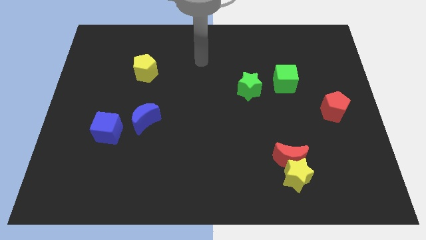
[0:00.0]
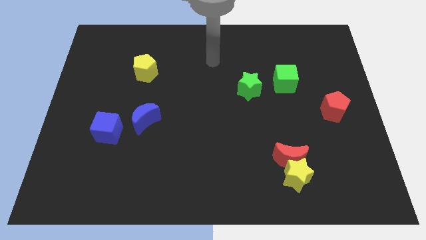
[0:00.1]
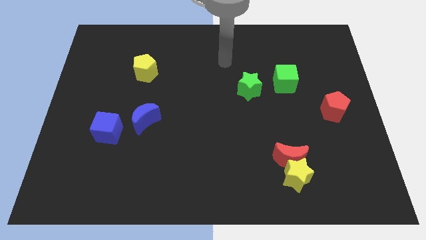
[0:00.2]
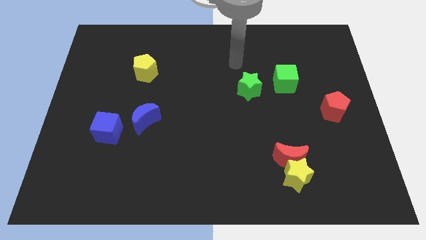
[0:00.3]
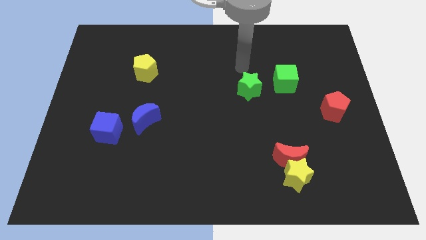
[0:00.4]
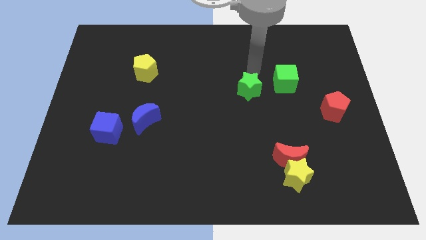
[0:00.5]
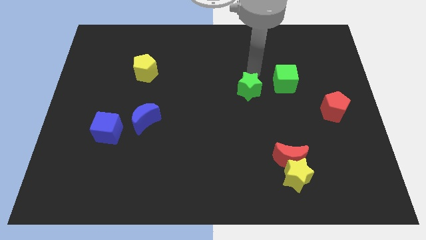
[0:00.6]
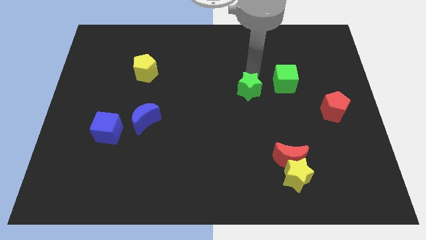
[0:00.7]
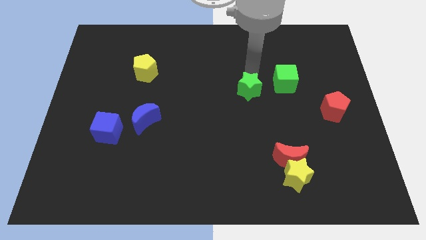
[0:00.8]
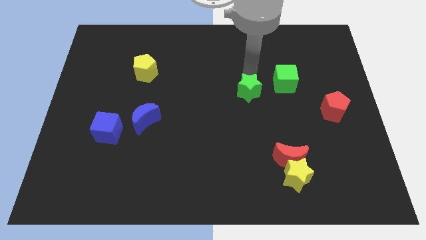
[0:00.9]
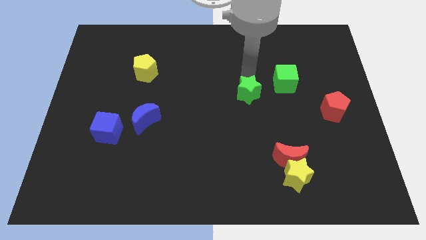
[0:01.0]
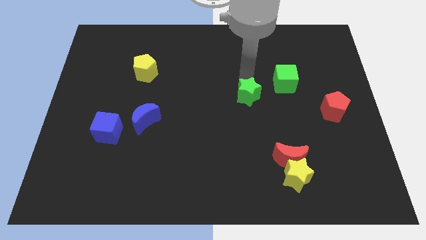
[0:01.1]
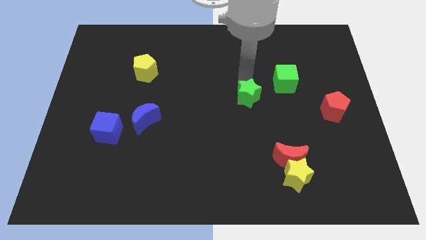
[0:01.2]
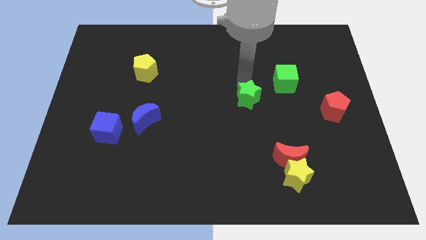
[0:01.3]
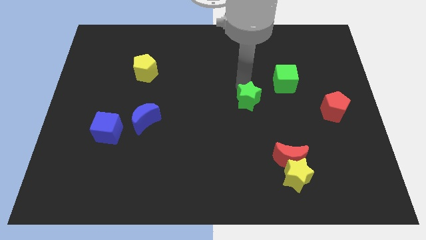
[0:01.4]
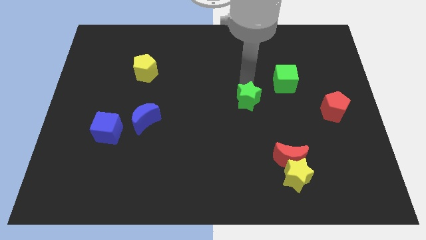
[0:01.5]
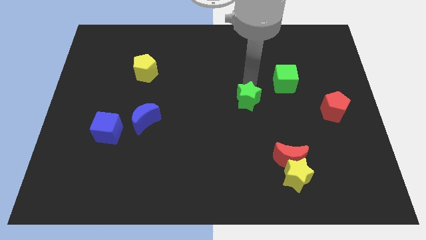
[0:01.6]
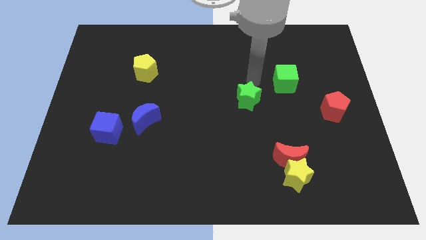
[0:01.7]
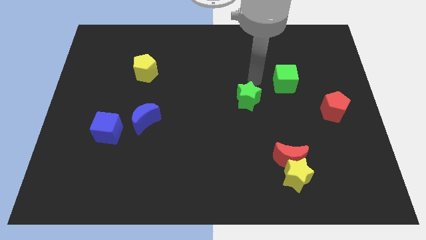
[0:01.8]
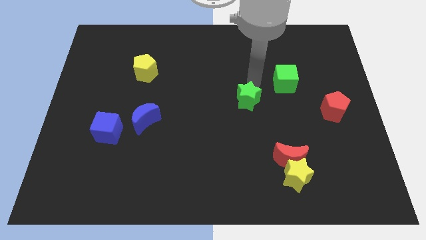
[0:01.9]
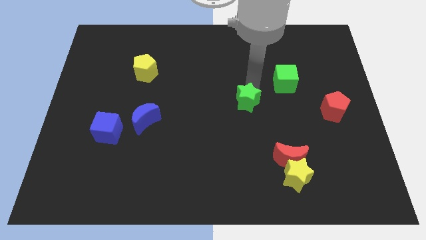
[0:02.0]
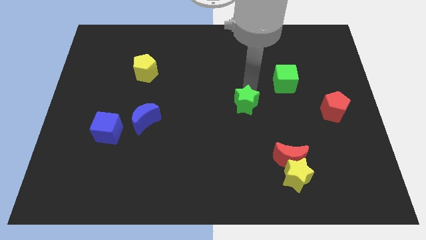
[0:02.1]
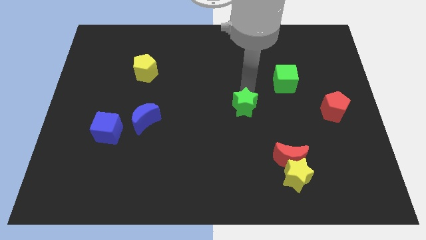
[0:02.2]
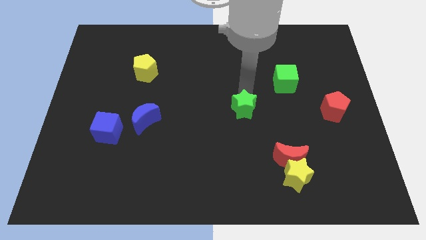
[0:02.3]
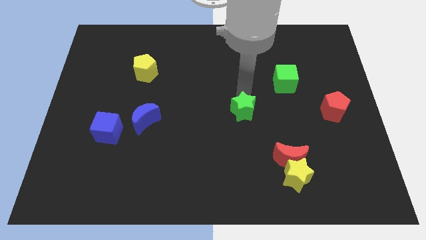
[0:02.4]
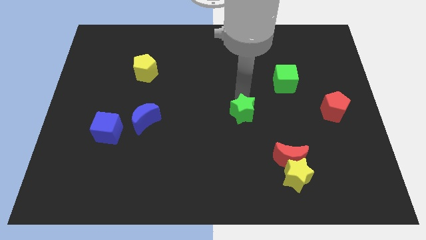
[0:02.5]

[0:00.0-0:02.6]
move the green star downwards slightly

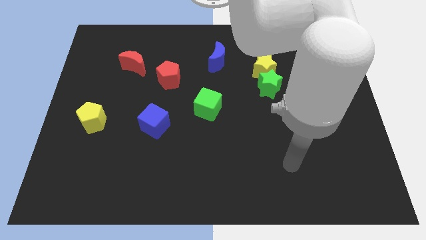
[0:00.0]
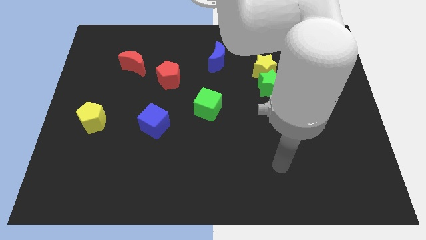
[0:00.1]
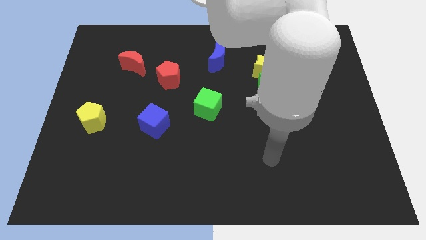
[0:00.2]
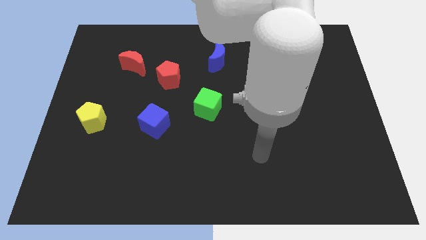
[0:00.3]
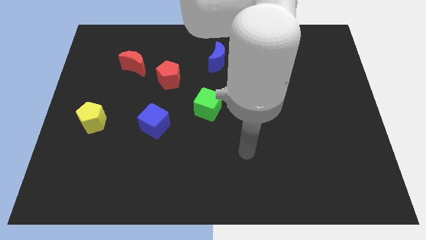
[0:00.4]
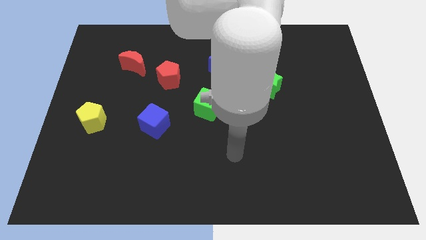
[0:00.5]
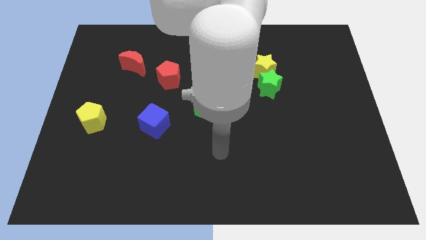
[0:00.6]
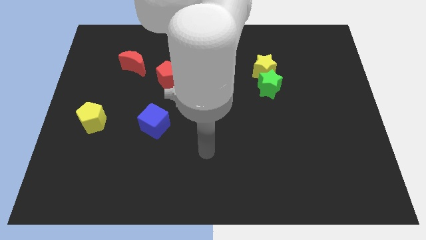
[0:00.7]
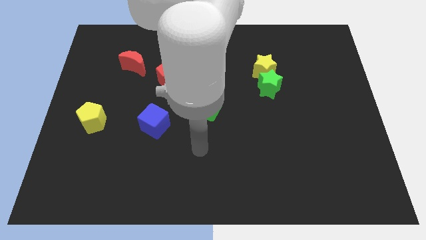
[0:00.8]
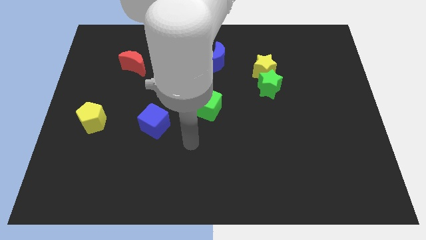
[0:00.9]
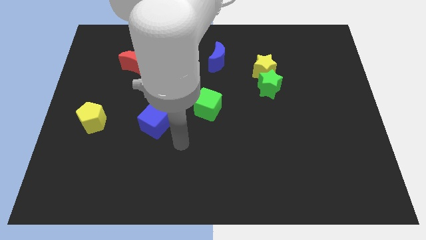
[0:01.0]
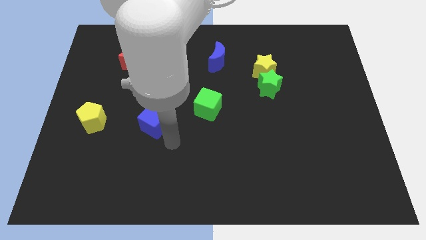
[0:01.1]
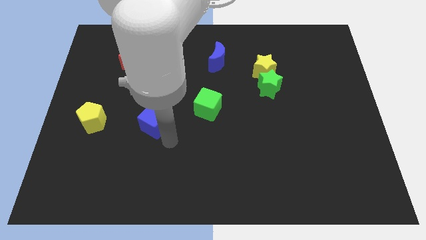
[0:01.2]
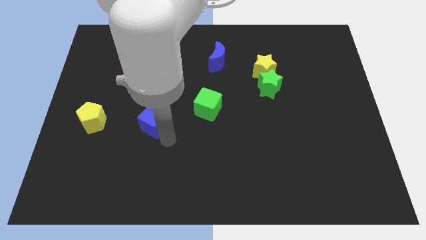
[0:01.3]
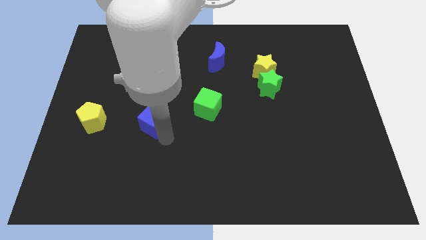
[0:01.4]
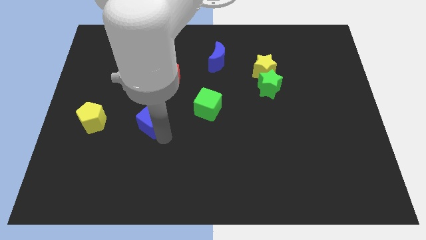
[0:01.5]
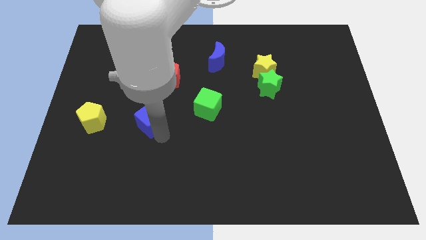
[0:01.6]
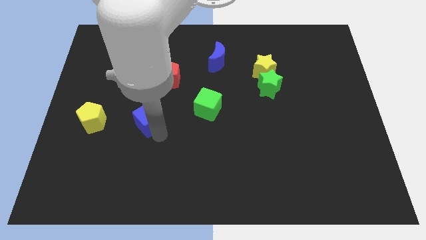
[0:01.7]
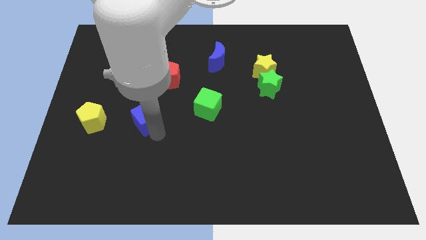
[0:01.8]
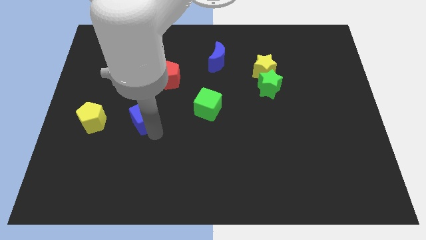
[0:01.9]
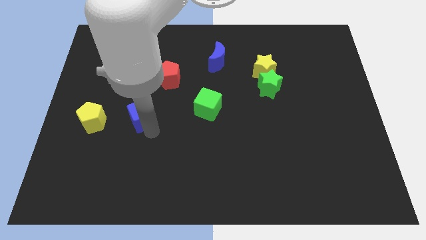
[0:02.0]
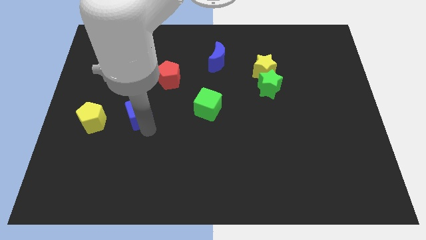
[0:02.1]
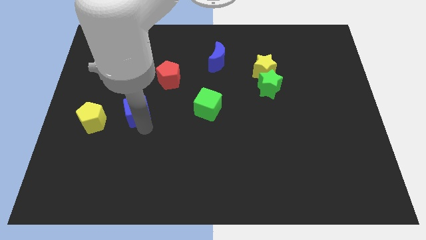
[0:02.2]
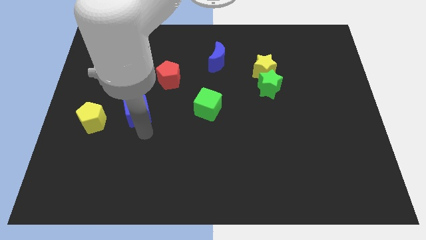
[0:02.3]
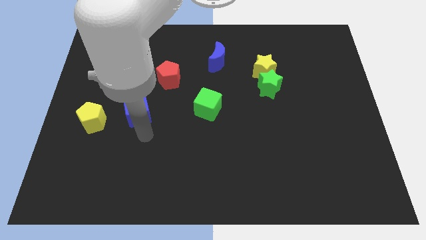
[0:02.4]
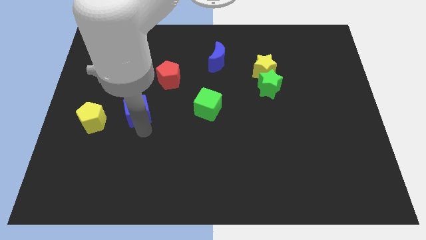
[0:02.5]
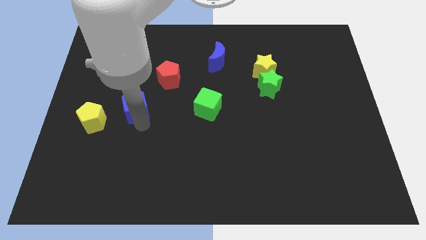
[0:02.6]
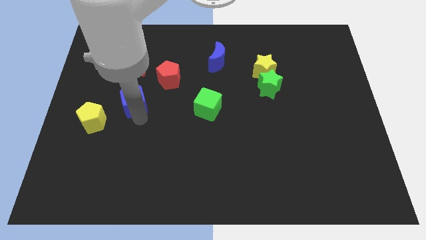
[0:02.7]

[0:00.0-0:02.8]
slightly slide the blue cube diagonally upwards and left

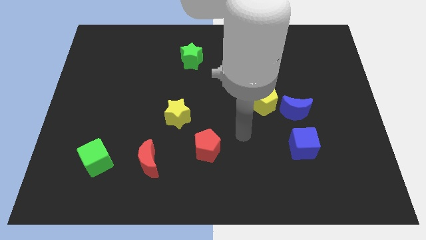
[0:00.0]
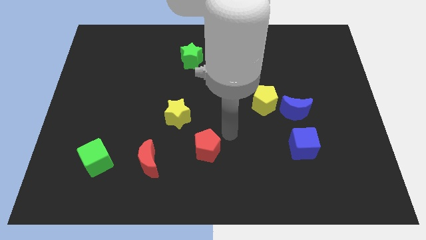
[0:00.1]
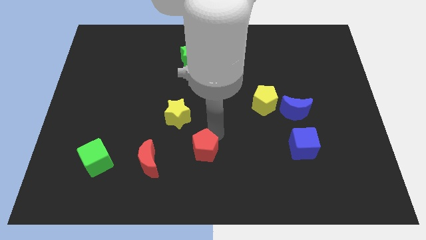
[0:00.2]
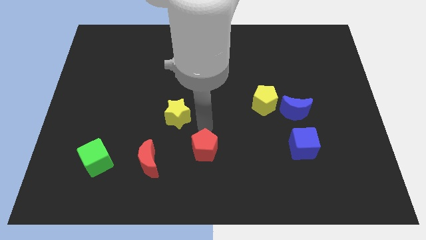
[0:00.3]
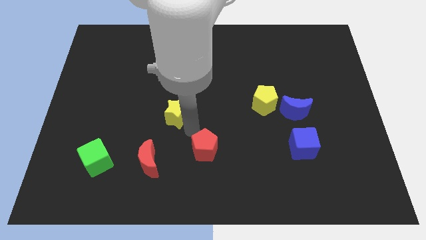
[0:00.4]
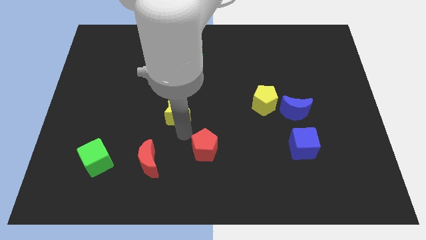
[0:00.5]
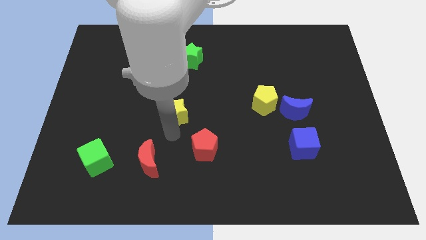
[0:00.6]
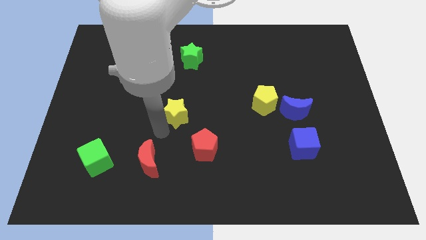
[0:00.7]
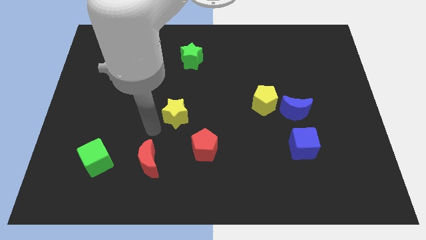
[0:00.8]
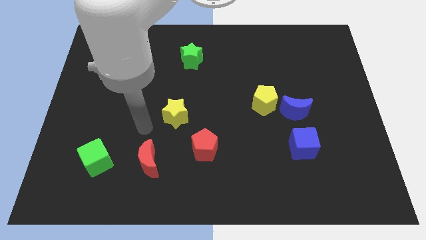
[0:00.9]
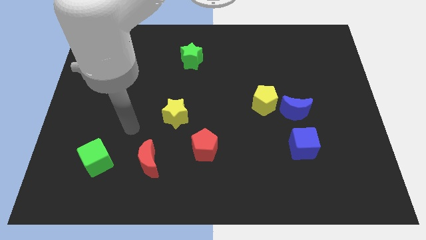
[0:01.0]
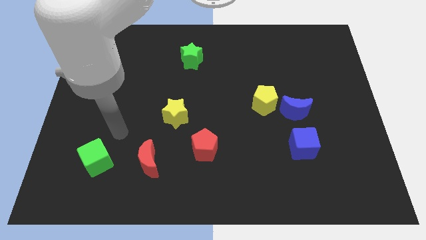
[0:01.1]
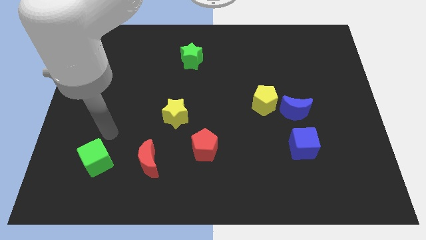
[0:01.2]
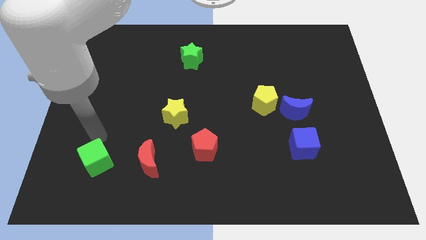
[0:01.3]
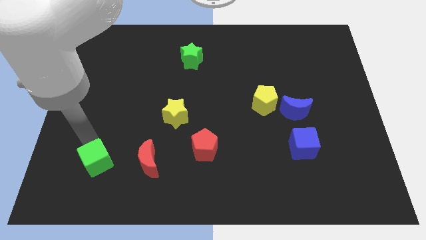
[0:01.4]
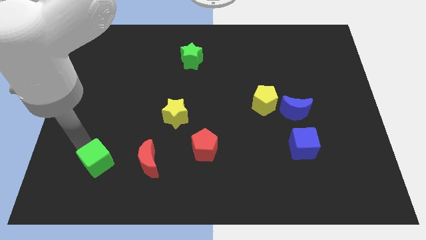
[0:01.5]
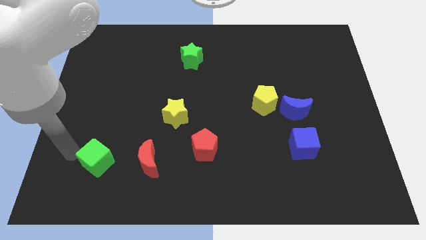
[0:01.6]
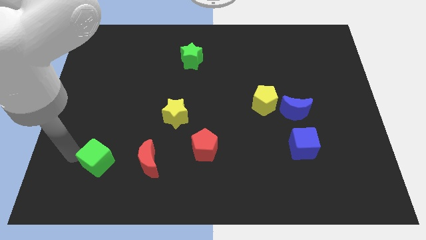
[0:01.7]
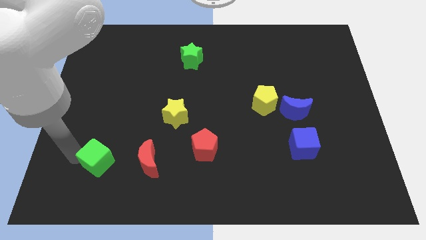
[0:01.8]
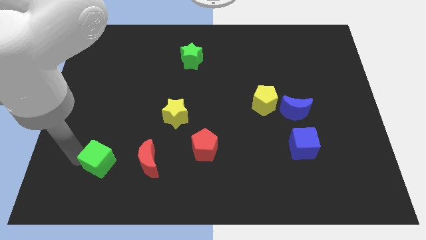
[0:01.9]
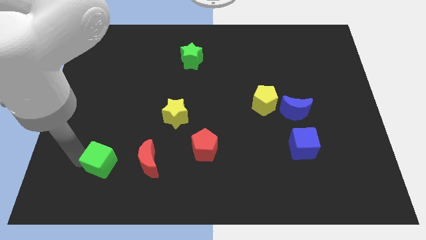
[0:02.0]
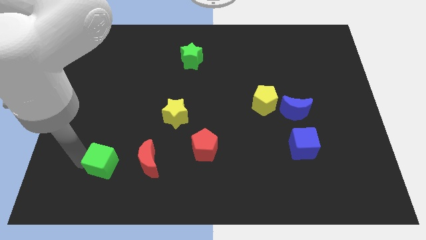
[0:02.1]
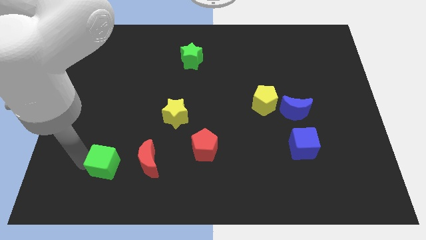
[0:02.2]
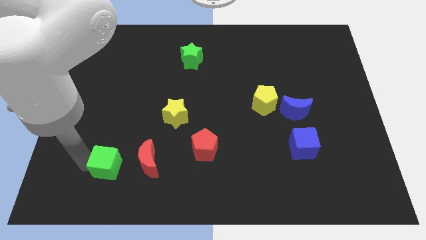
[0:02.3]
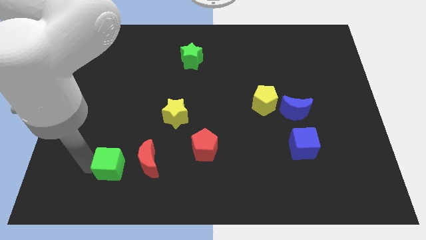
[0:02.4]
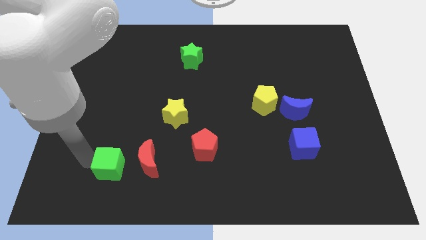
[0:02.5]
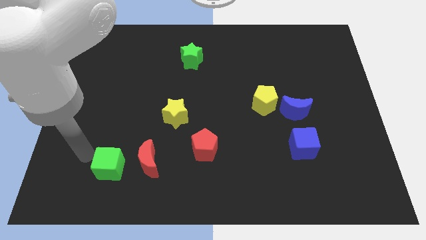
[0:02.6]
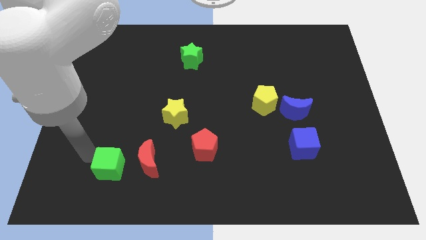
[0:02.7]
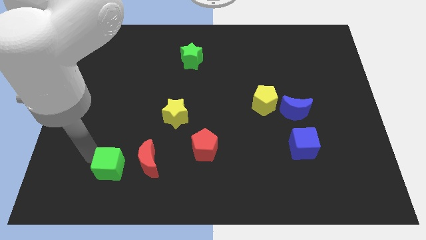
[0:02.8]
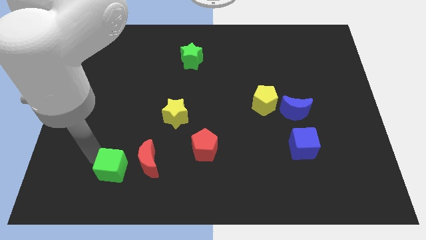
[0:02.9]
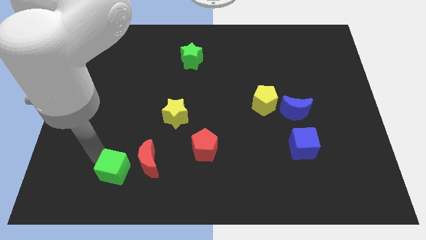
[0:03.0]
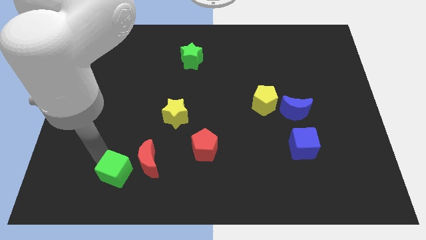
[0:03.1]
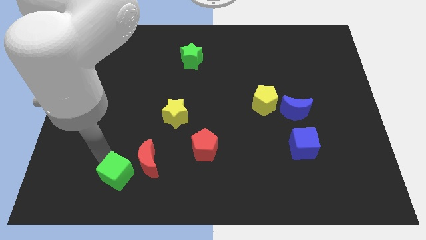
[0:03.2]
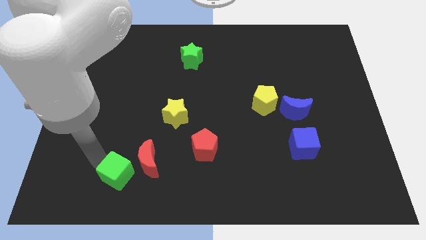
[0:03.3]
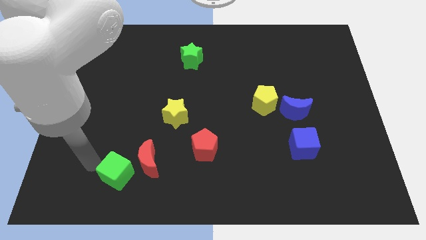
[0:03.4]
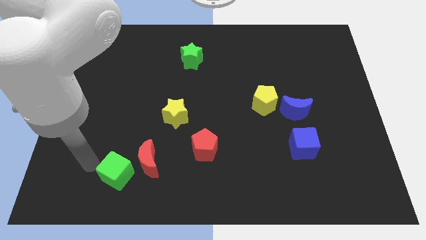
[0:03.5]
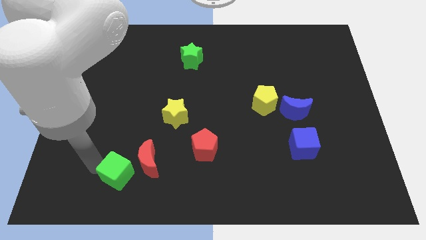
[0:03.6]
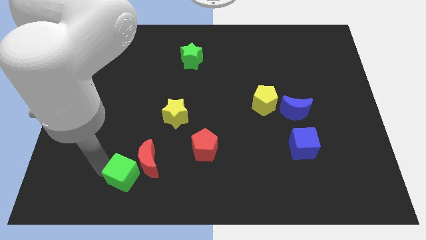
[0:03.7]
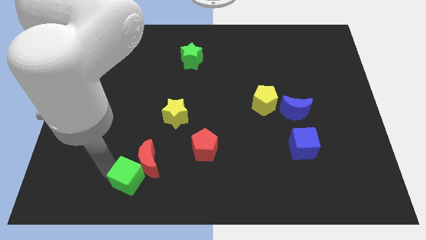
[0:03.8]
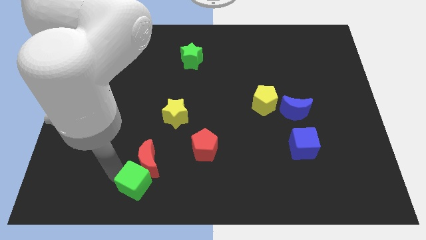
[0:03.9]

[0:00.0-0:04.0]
slightly push the green cube right
